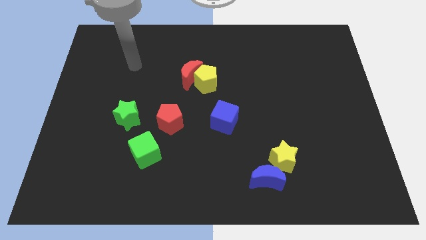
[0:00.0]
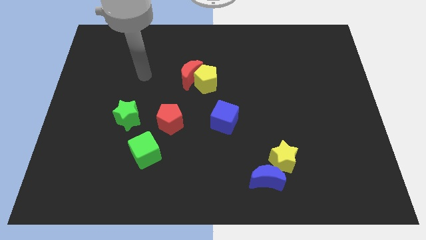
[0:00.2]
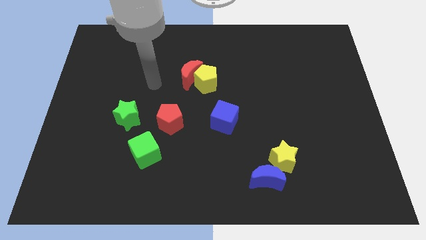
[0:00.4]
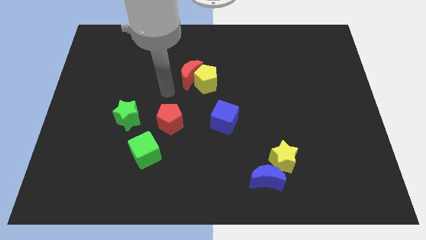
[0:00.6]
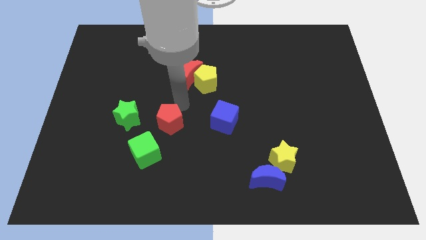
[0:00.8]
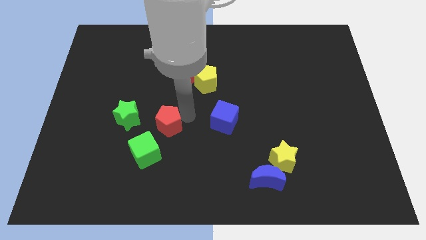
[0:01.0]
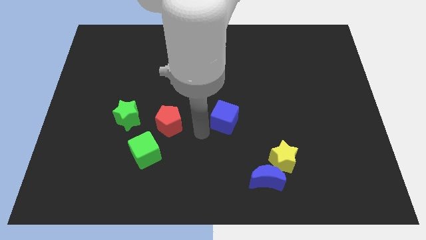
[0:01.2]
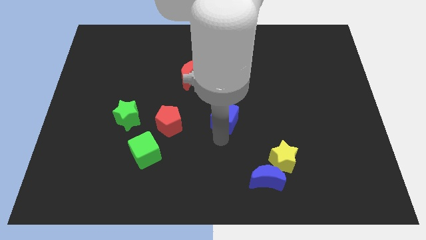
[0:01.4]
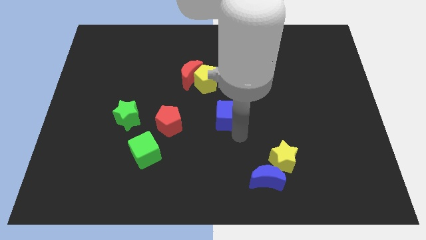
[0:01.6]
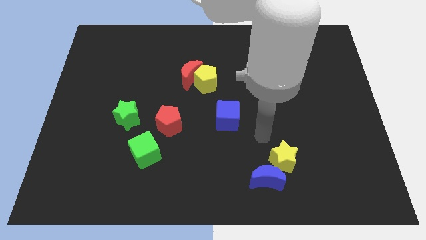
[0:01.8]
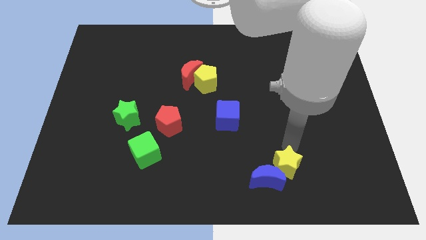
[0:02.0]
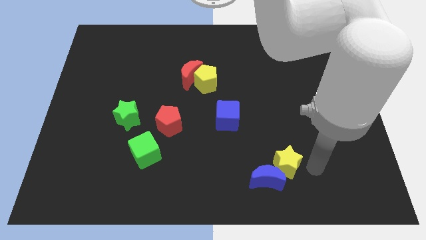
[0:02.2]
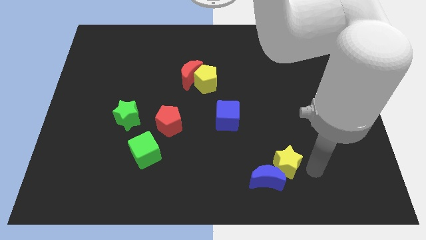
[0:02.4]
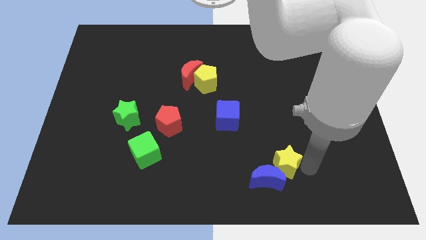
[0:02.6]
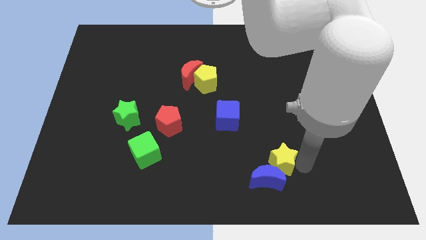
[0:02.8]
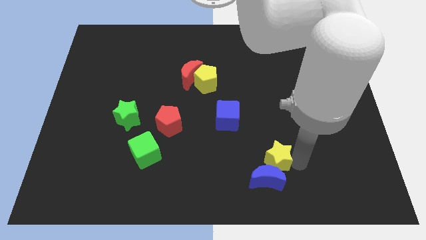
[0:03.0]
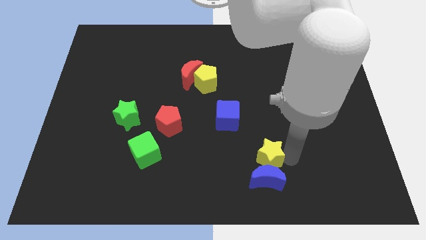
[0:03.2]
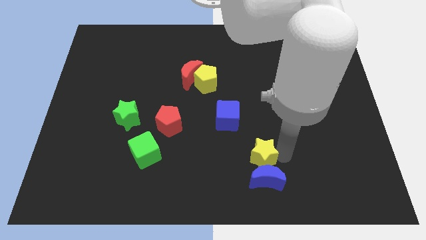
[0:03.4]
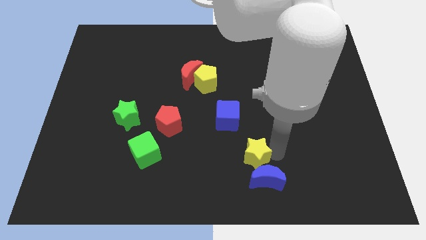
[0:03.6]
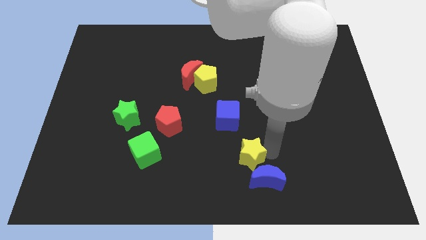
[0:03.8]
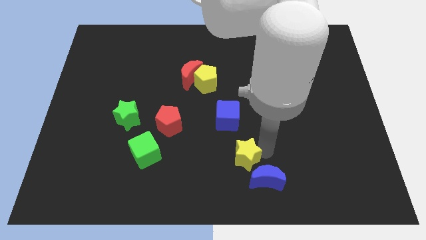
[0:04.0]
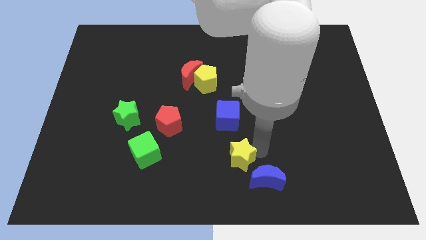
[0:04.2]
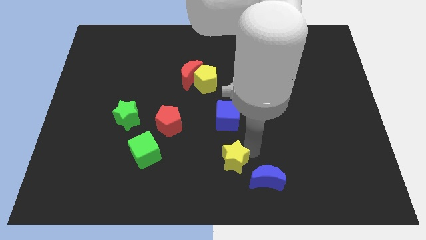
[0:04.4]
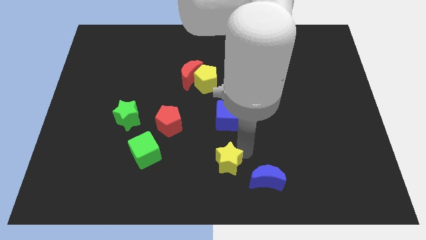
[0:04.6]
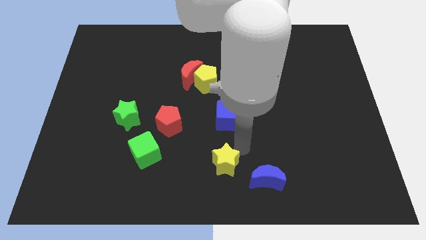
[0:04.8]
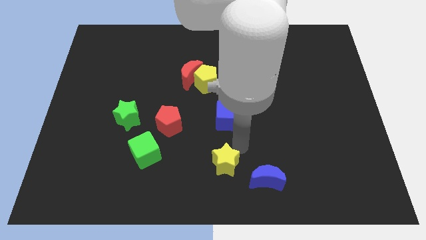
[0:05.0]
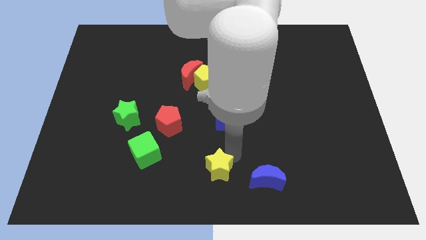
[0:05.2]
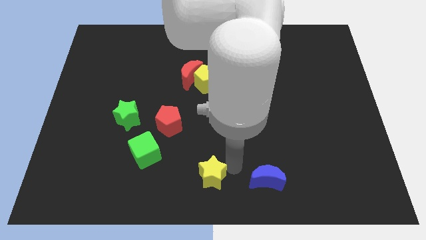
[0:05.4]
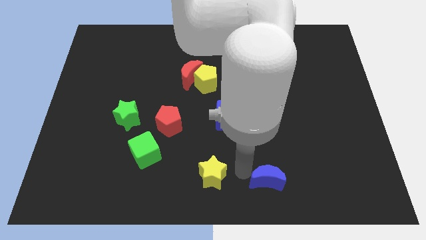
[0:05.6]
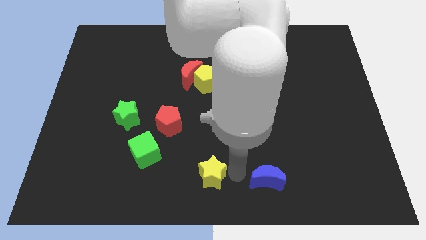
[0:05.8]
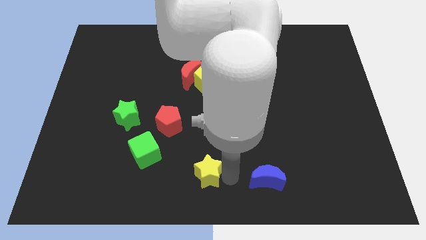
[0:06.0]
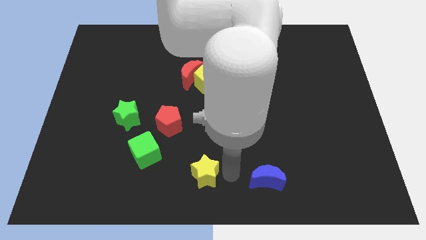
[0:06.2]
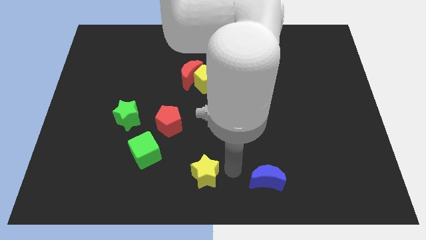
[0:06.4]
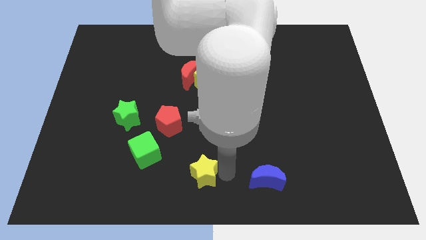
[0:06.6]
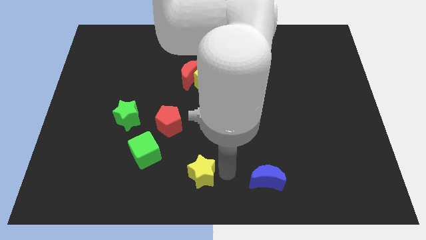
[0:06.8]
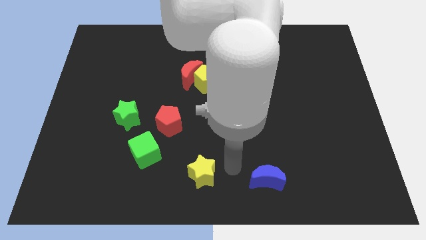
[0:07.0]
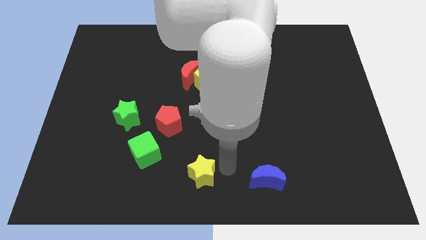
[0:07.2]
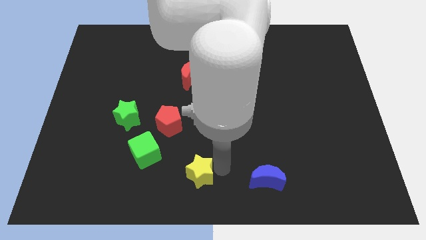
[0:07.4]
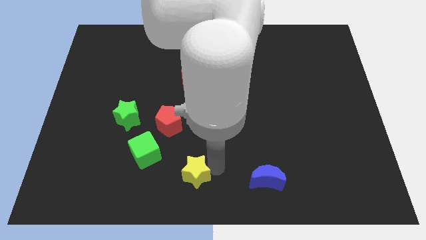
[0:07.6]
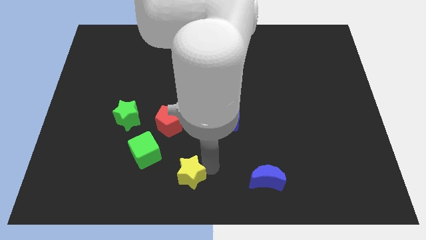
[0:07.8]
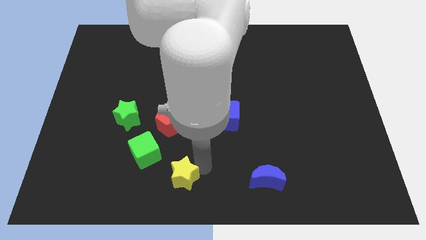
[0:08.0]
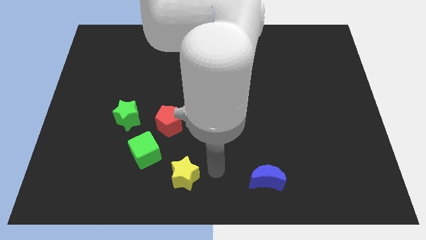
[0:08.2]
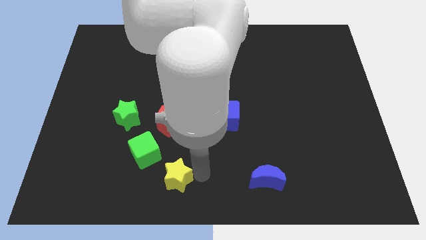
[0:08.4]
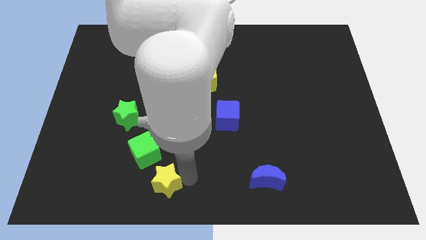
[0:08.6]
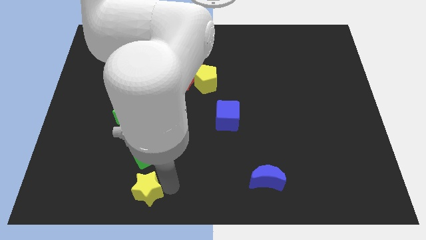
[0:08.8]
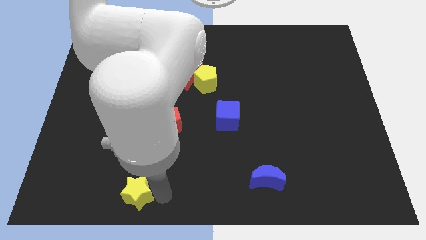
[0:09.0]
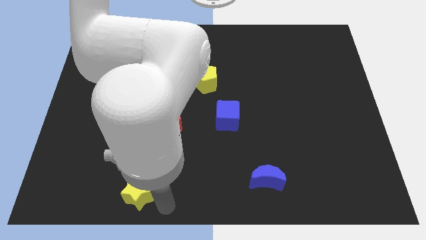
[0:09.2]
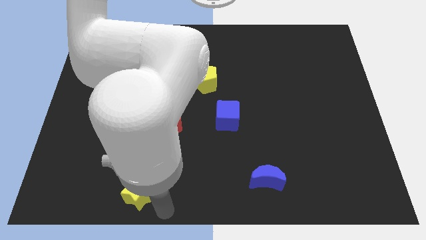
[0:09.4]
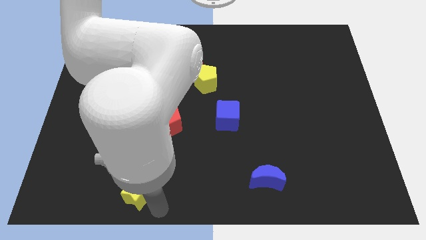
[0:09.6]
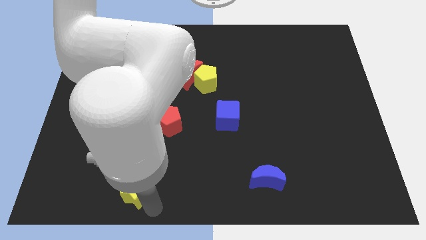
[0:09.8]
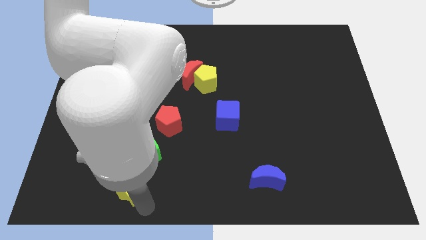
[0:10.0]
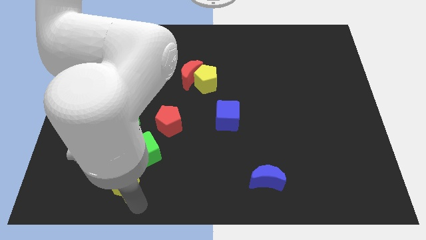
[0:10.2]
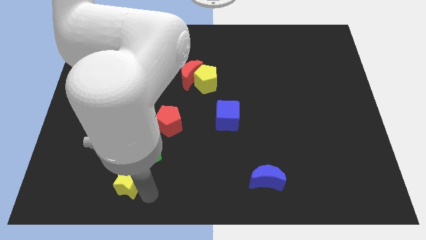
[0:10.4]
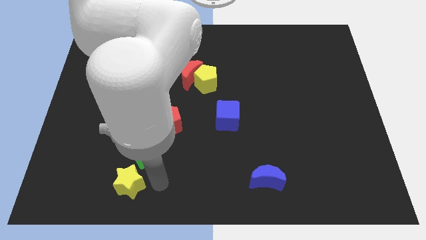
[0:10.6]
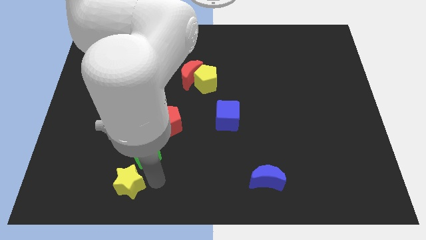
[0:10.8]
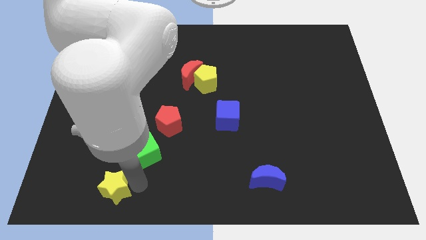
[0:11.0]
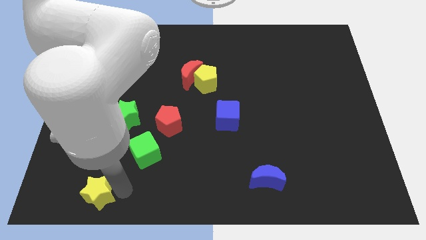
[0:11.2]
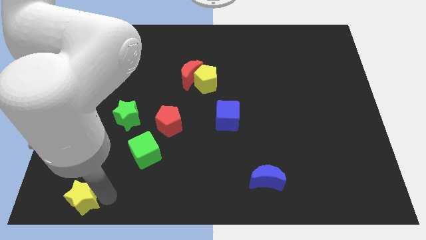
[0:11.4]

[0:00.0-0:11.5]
push the yellow star to the bottom left of the board

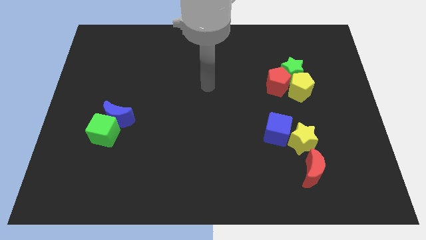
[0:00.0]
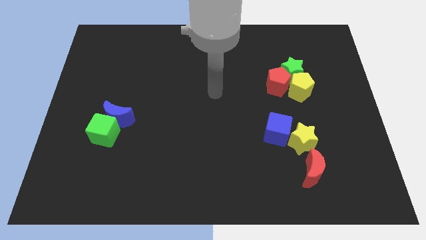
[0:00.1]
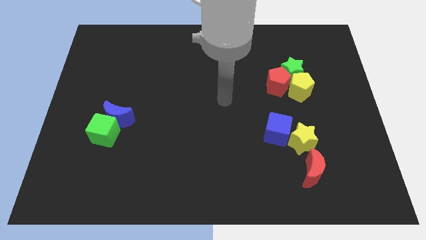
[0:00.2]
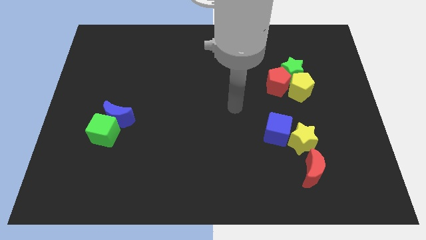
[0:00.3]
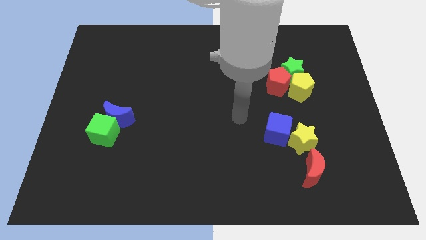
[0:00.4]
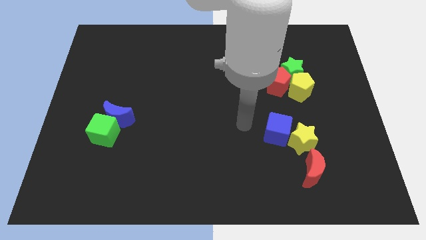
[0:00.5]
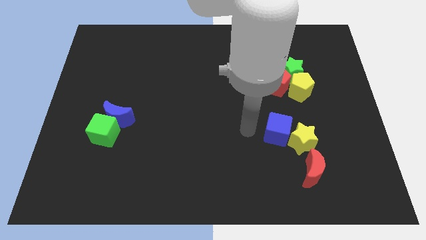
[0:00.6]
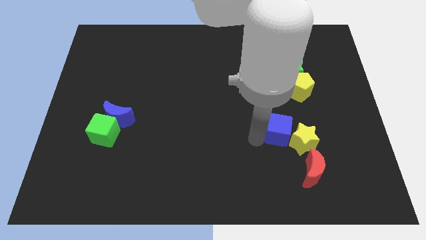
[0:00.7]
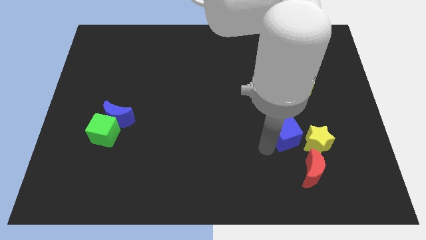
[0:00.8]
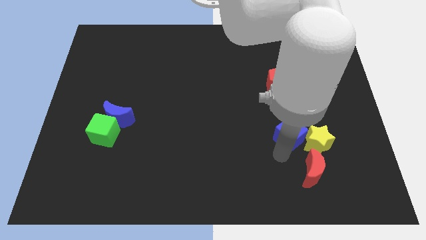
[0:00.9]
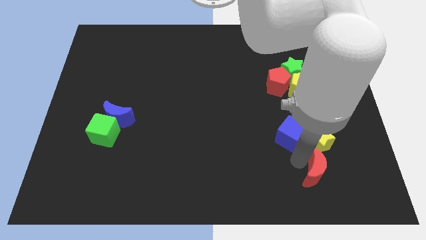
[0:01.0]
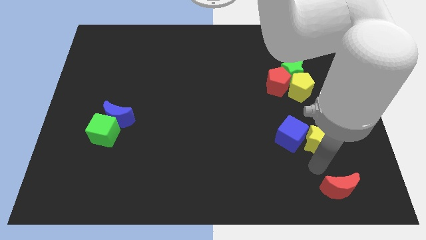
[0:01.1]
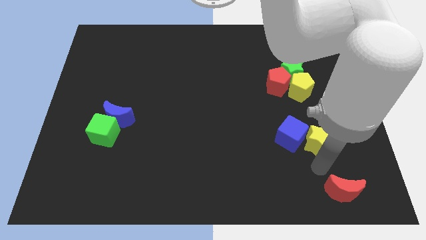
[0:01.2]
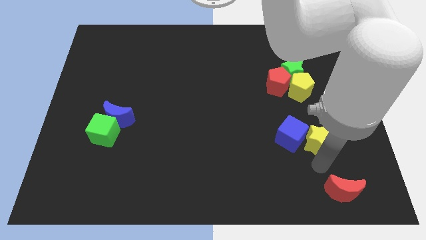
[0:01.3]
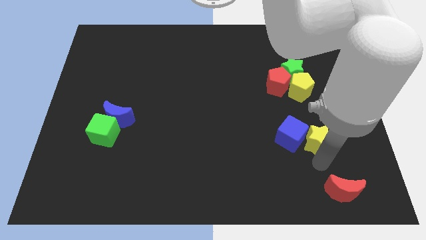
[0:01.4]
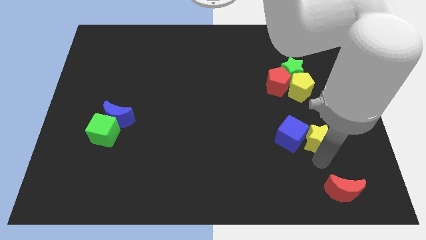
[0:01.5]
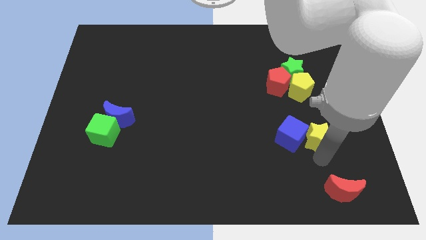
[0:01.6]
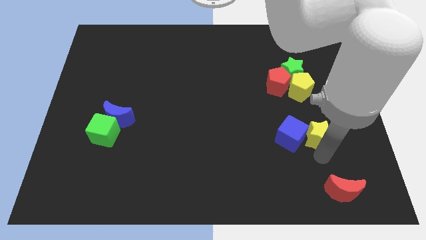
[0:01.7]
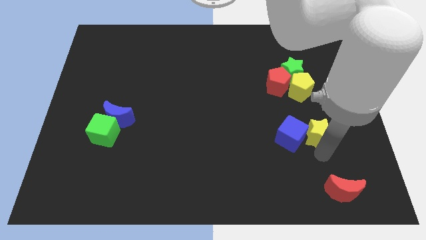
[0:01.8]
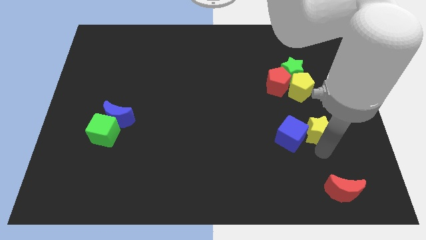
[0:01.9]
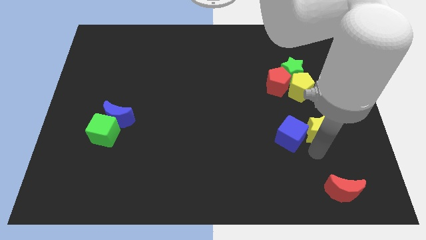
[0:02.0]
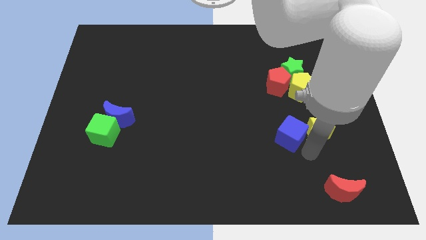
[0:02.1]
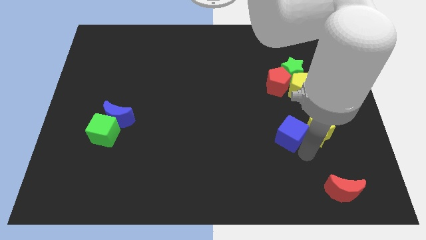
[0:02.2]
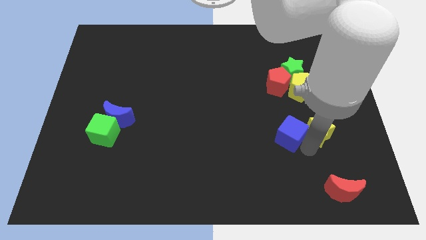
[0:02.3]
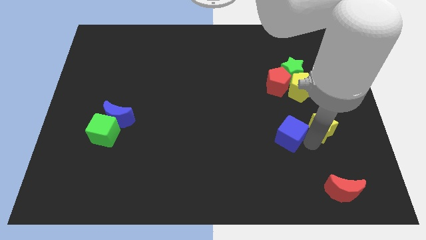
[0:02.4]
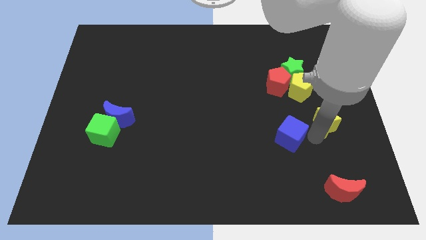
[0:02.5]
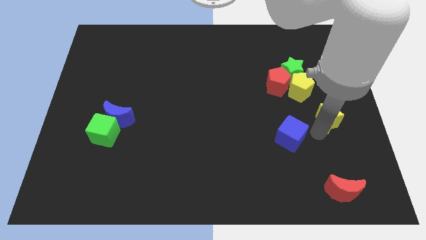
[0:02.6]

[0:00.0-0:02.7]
slide the yellow star to the right side
